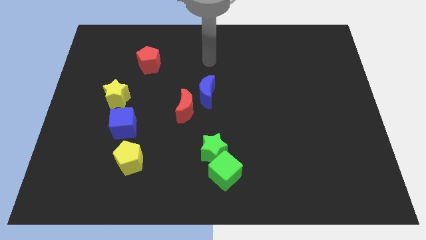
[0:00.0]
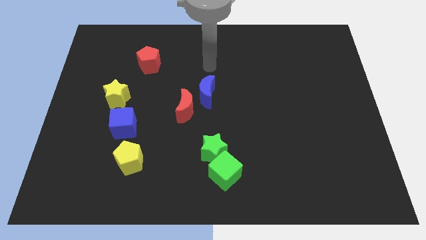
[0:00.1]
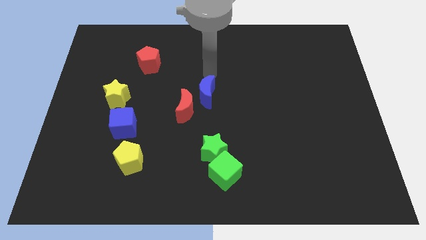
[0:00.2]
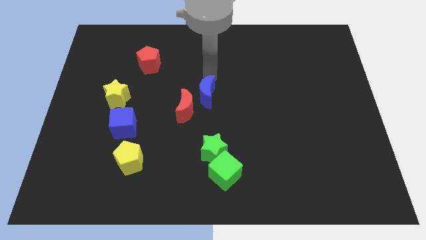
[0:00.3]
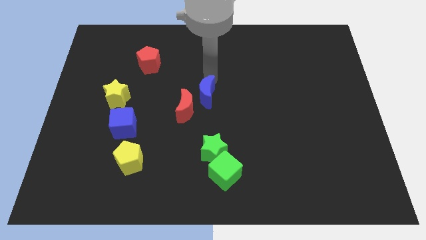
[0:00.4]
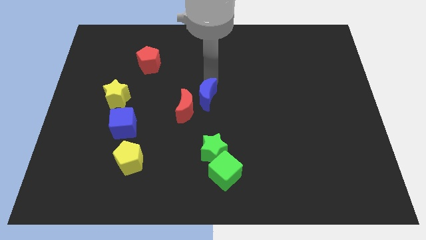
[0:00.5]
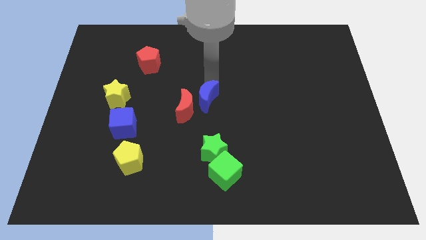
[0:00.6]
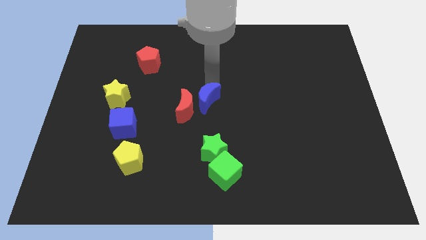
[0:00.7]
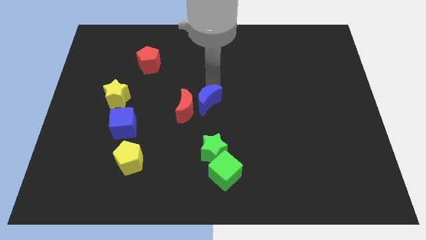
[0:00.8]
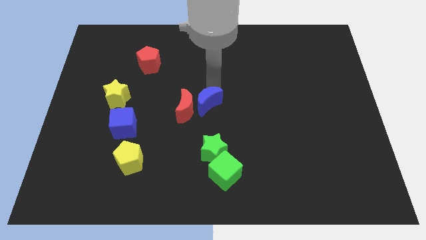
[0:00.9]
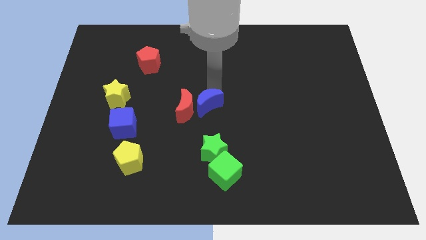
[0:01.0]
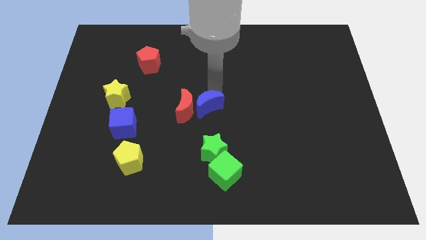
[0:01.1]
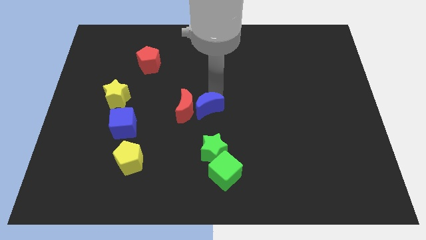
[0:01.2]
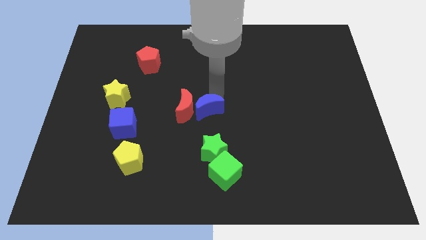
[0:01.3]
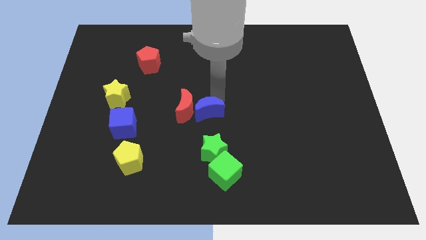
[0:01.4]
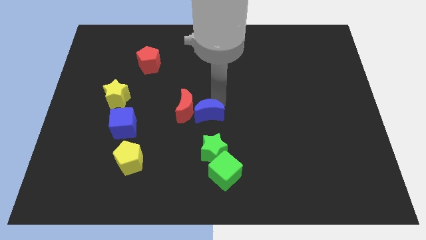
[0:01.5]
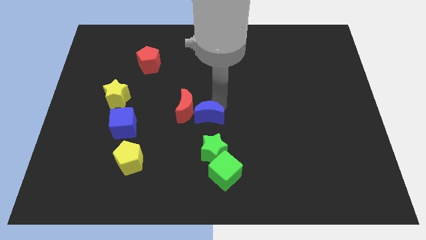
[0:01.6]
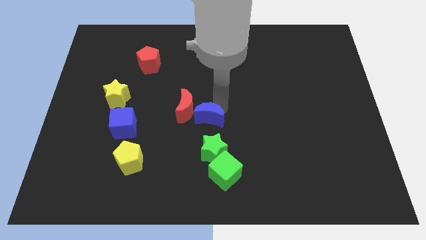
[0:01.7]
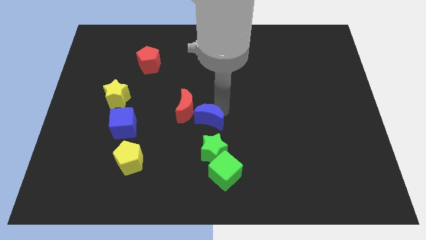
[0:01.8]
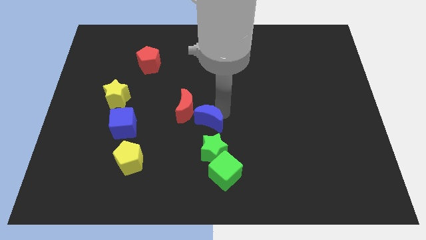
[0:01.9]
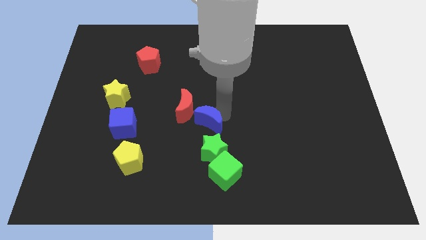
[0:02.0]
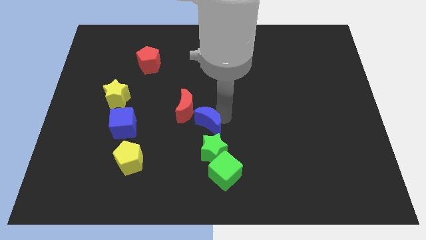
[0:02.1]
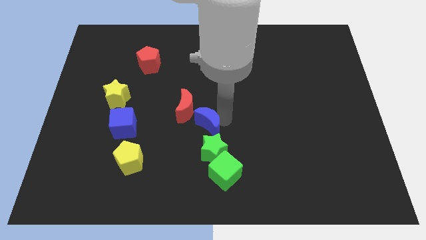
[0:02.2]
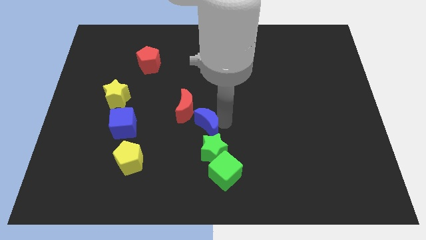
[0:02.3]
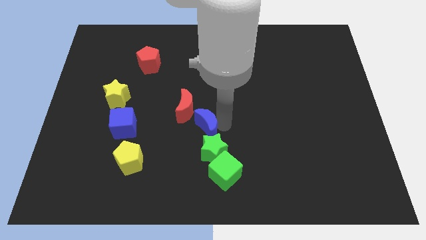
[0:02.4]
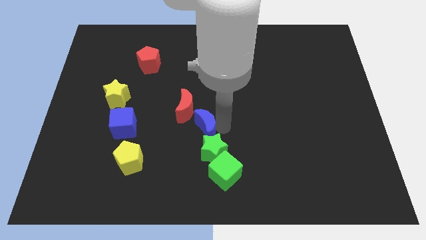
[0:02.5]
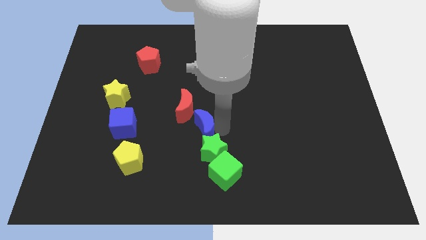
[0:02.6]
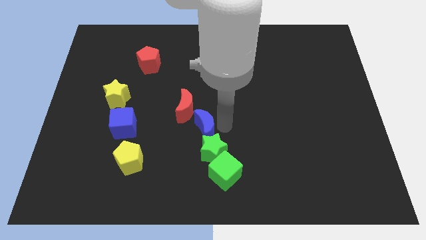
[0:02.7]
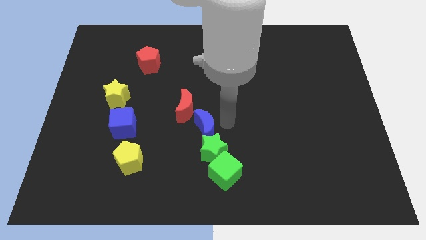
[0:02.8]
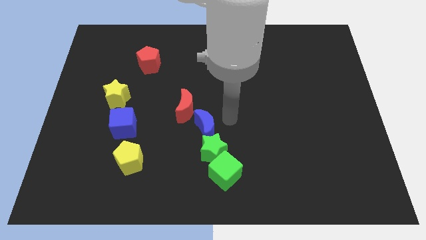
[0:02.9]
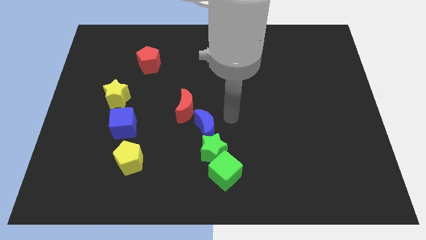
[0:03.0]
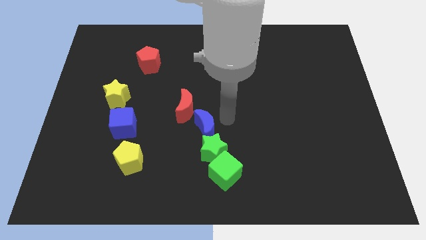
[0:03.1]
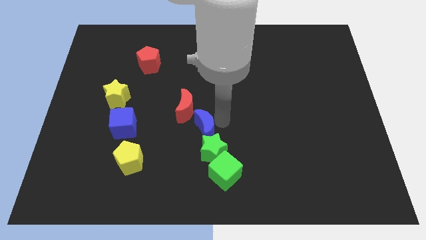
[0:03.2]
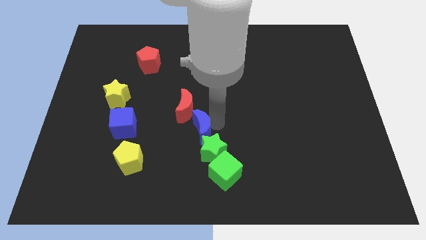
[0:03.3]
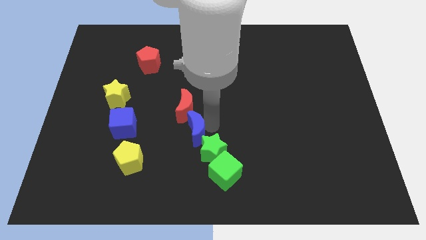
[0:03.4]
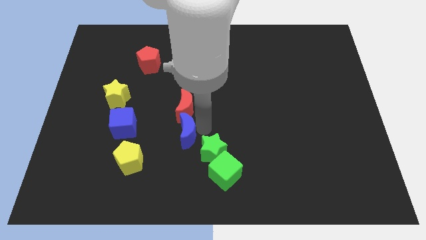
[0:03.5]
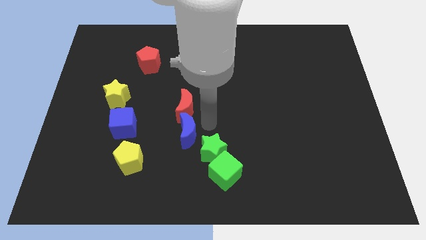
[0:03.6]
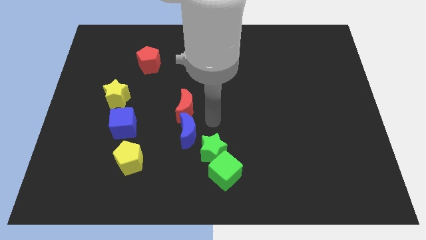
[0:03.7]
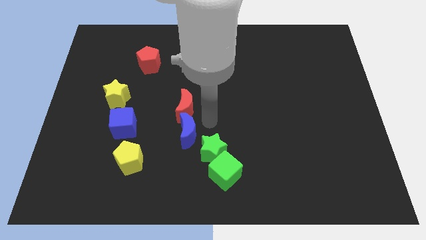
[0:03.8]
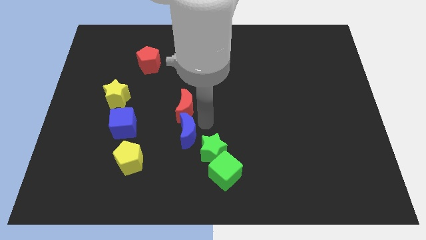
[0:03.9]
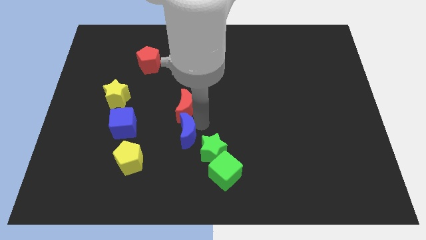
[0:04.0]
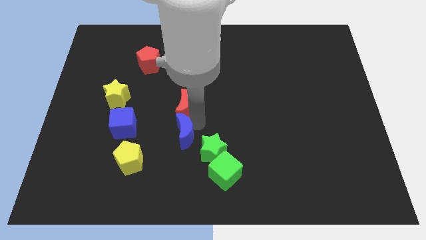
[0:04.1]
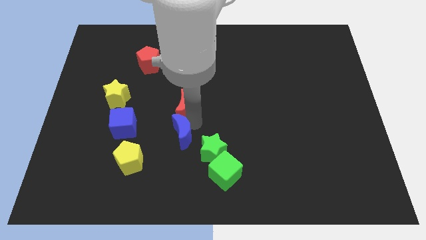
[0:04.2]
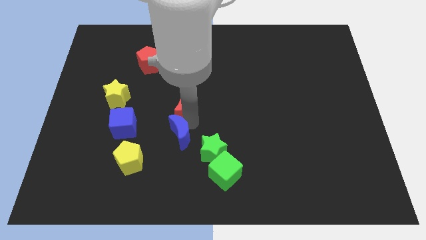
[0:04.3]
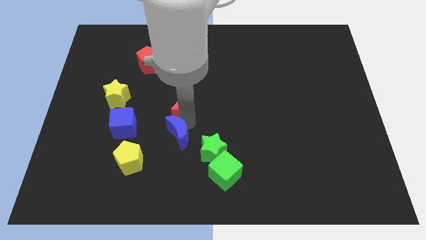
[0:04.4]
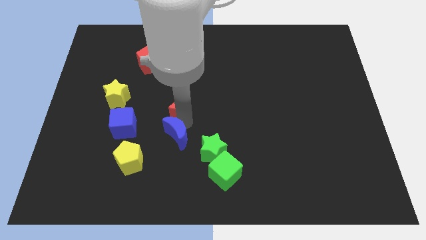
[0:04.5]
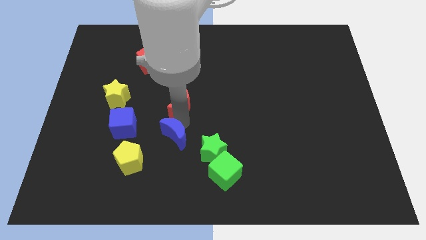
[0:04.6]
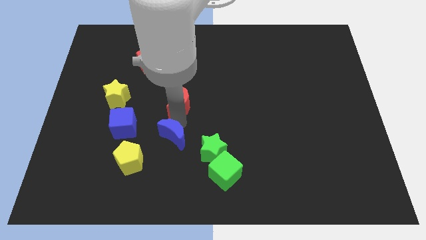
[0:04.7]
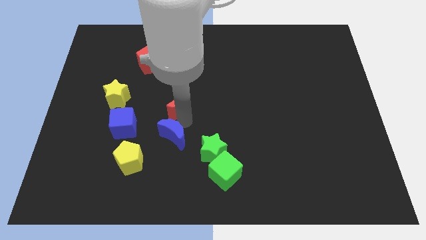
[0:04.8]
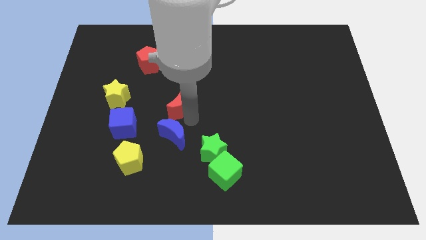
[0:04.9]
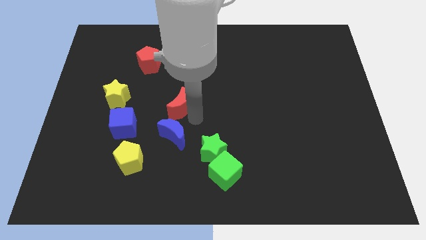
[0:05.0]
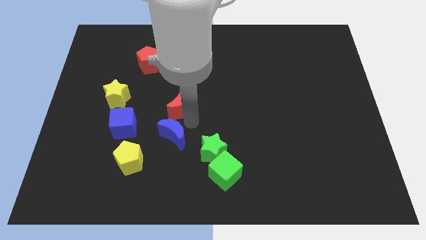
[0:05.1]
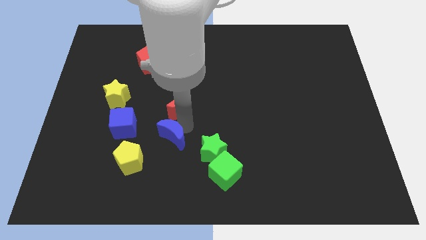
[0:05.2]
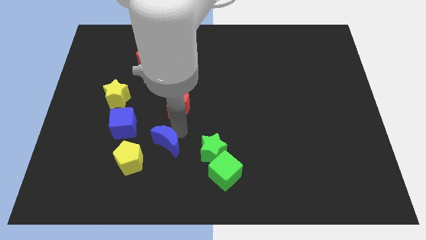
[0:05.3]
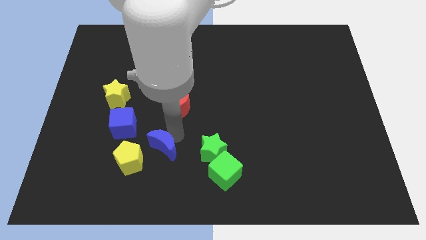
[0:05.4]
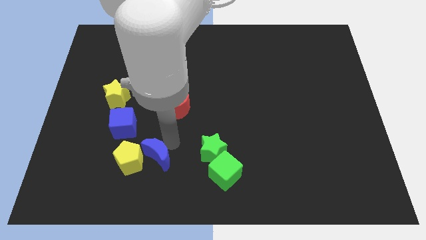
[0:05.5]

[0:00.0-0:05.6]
push the blue moon next to the yellow pentagon

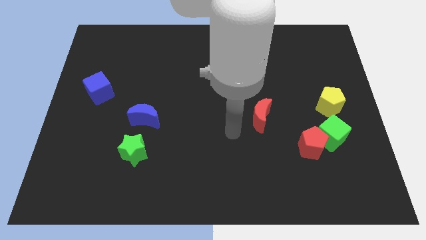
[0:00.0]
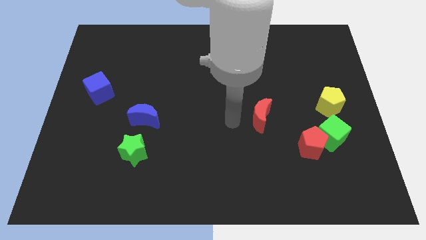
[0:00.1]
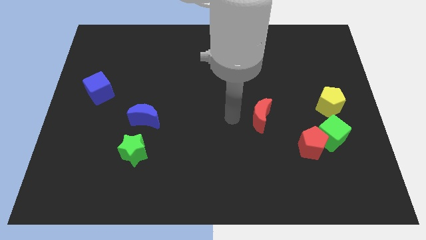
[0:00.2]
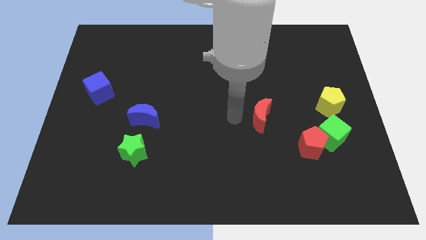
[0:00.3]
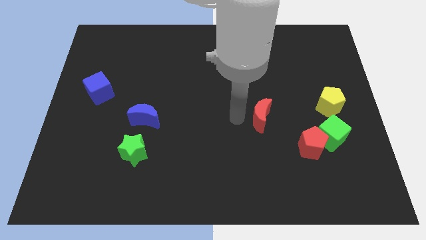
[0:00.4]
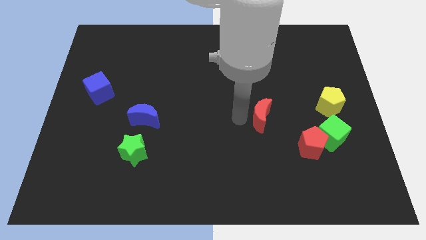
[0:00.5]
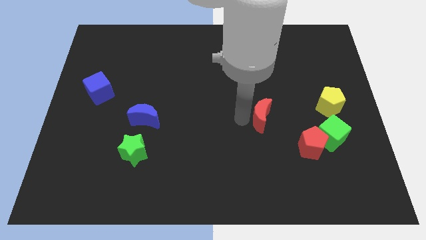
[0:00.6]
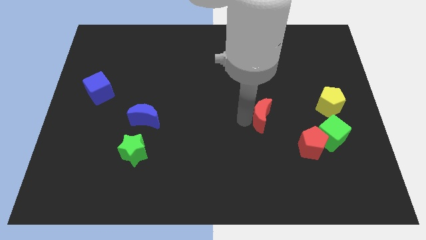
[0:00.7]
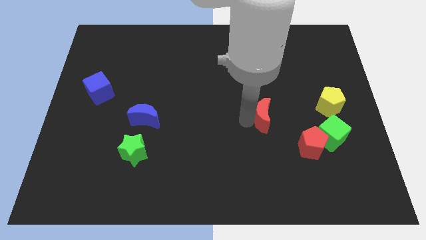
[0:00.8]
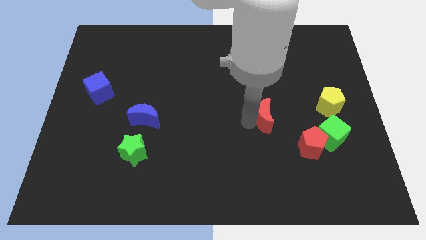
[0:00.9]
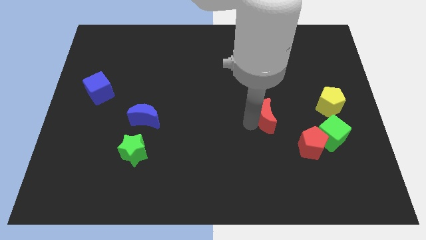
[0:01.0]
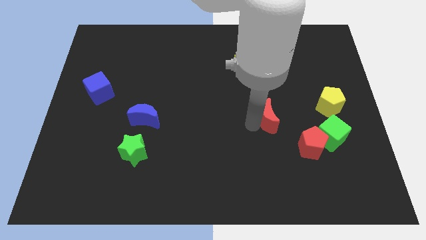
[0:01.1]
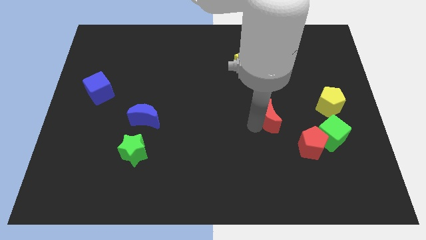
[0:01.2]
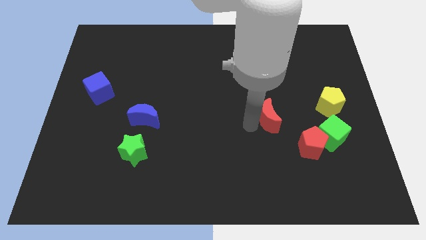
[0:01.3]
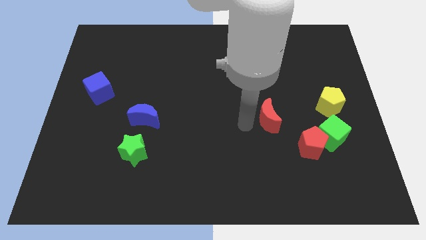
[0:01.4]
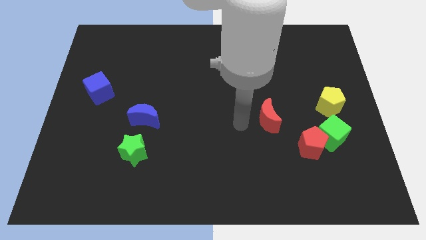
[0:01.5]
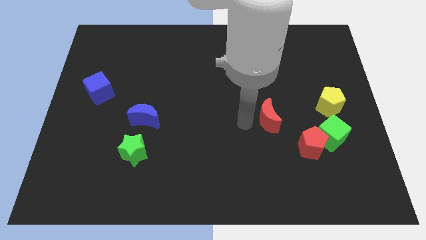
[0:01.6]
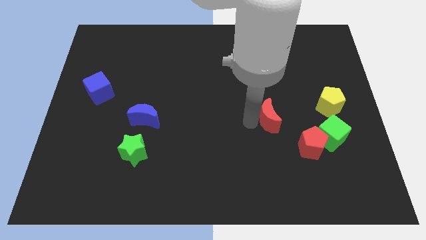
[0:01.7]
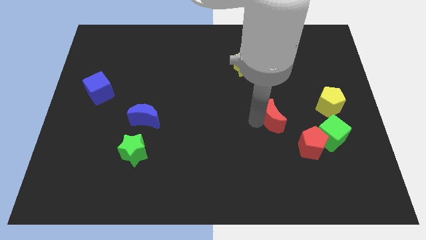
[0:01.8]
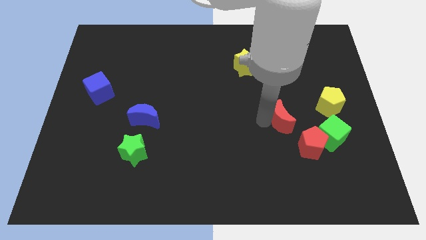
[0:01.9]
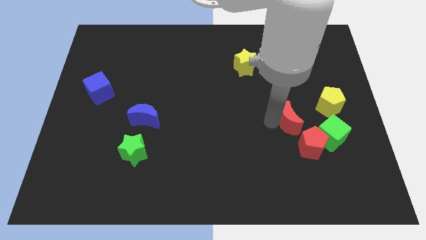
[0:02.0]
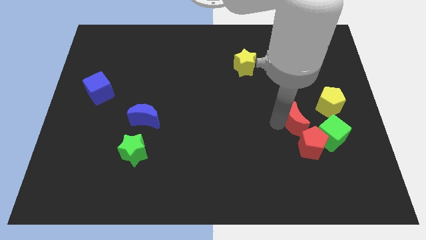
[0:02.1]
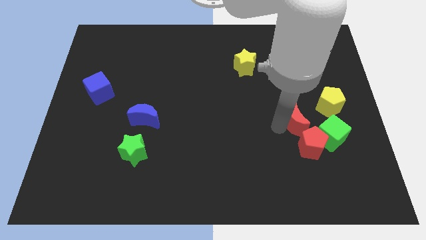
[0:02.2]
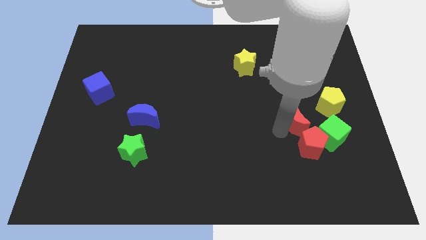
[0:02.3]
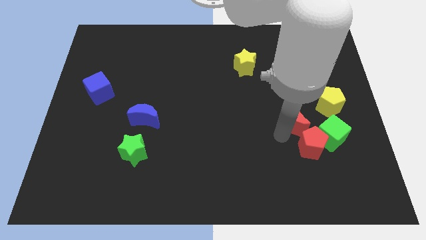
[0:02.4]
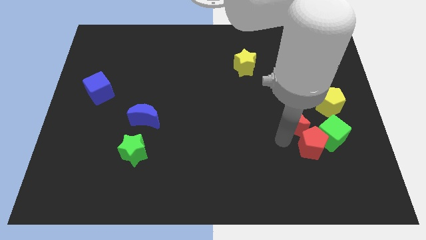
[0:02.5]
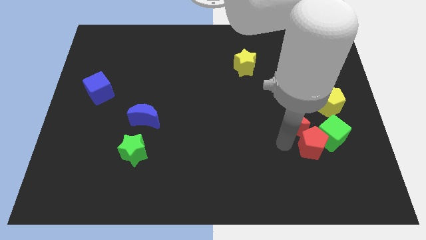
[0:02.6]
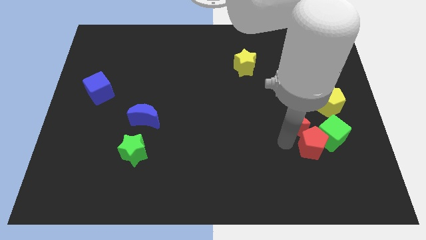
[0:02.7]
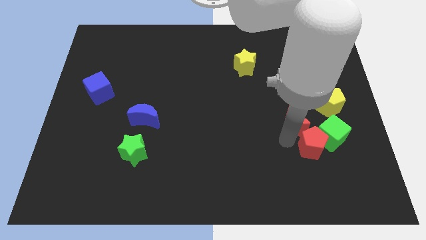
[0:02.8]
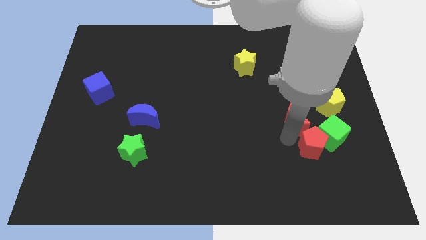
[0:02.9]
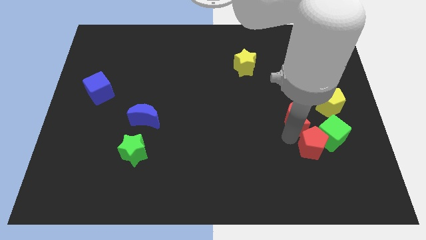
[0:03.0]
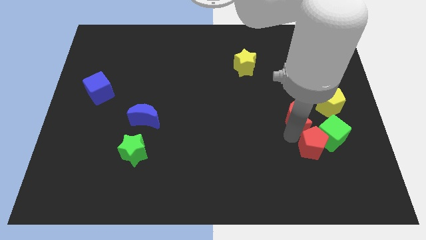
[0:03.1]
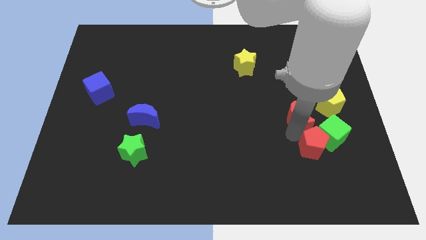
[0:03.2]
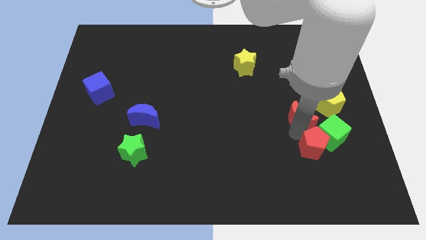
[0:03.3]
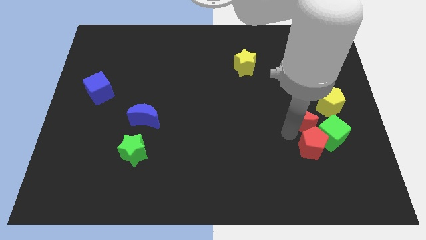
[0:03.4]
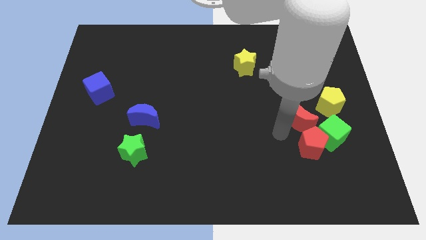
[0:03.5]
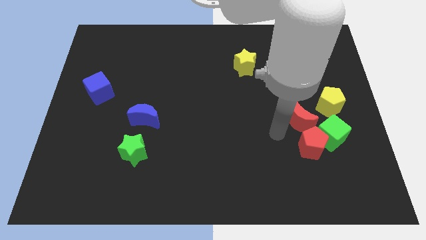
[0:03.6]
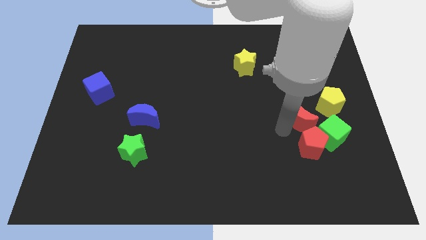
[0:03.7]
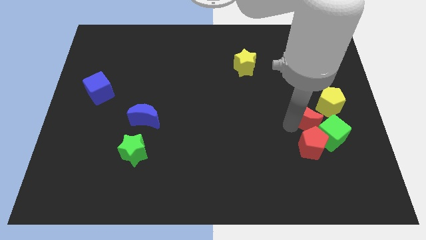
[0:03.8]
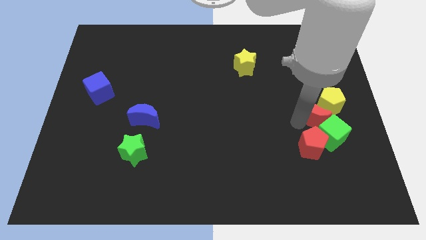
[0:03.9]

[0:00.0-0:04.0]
slide the red moon to the yellow pentagon
